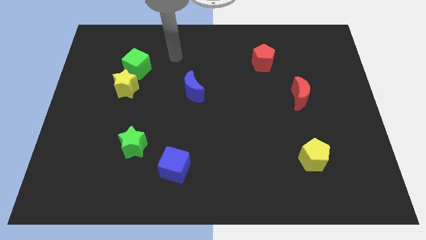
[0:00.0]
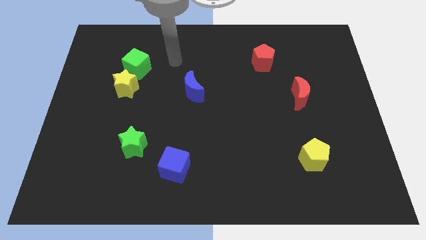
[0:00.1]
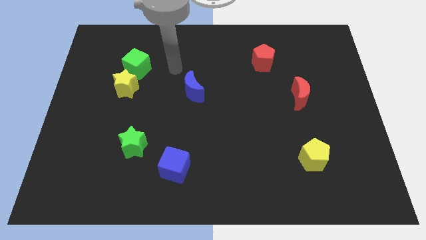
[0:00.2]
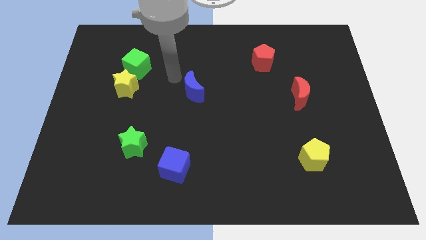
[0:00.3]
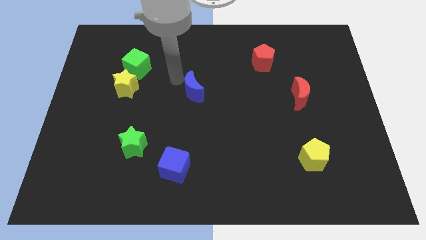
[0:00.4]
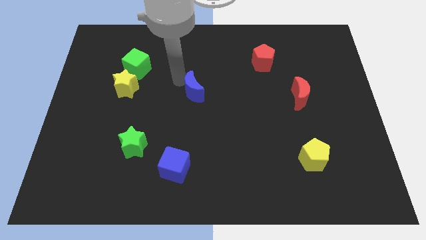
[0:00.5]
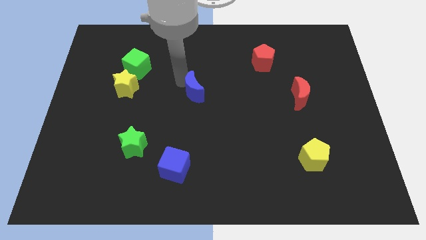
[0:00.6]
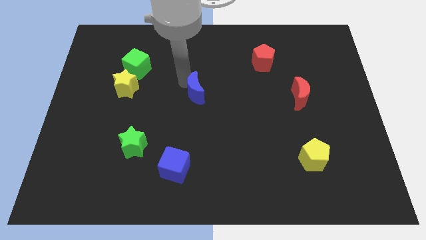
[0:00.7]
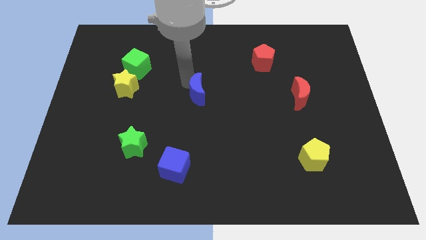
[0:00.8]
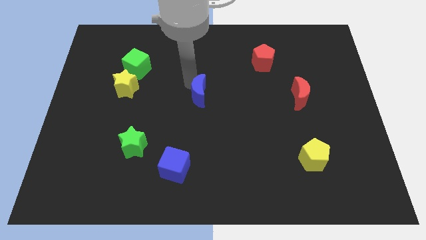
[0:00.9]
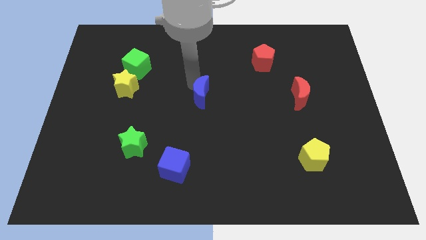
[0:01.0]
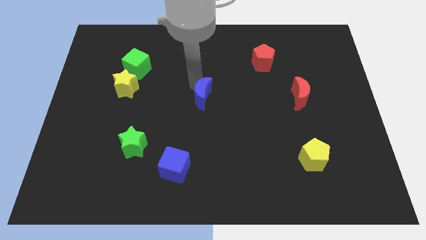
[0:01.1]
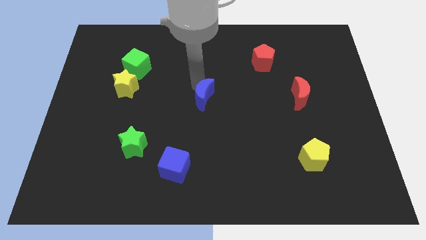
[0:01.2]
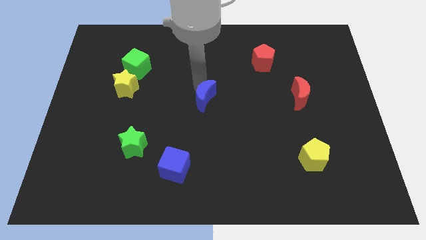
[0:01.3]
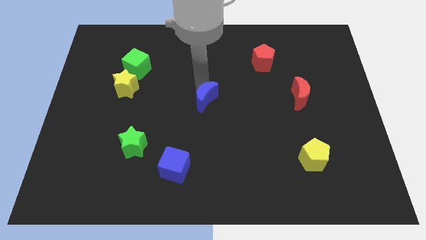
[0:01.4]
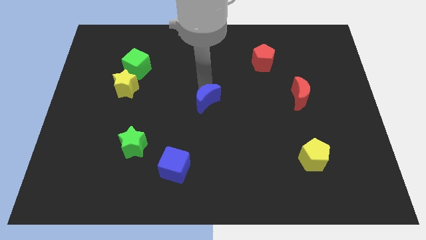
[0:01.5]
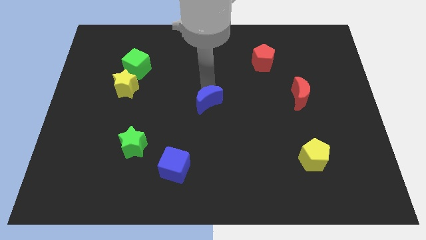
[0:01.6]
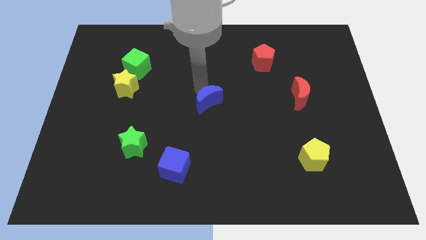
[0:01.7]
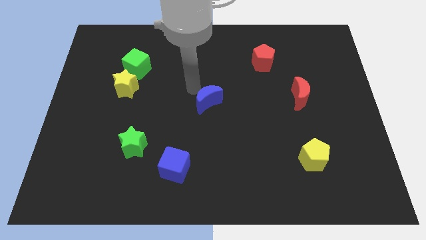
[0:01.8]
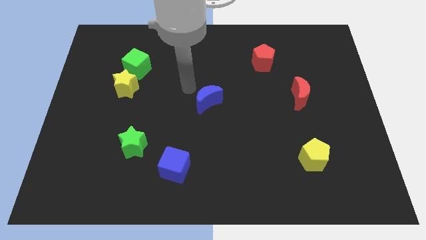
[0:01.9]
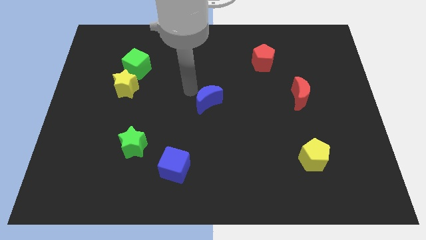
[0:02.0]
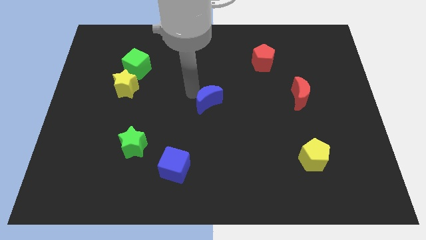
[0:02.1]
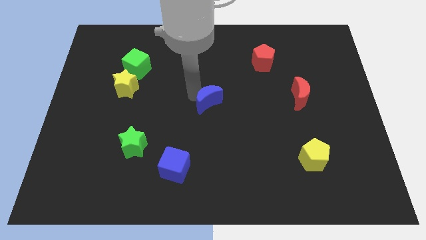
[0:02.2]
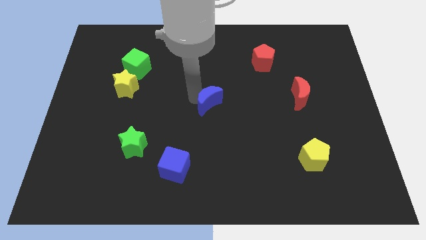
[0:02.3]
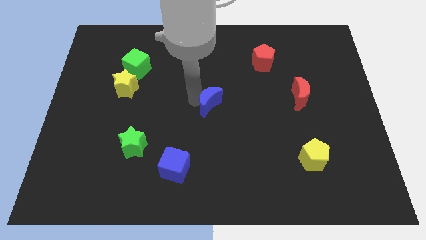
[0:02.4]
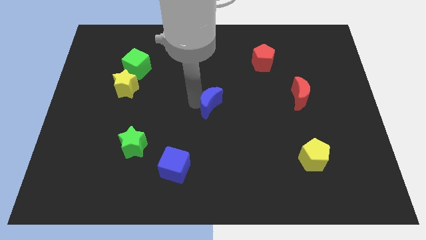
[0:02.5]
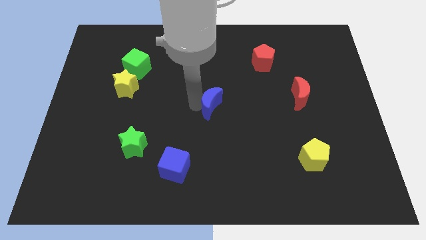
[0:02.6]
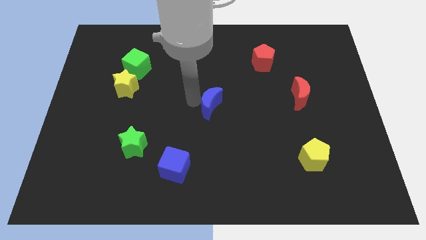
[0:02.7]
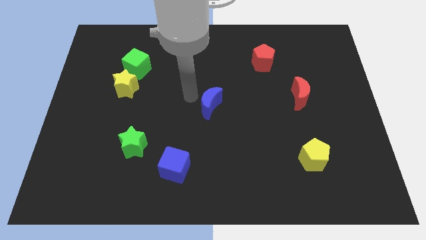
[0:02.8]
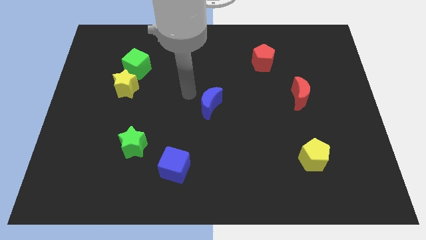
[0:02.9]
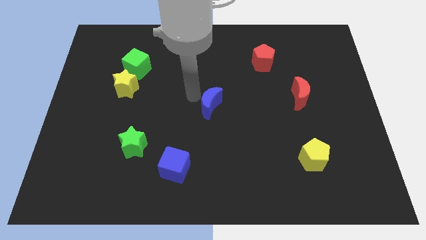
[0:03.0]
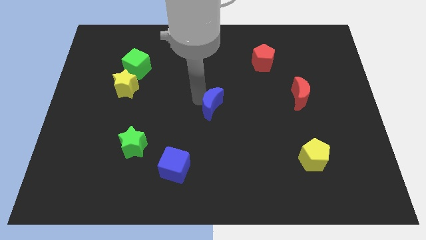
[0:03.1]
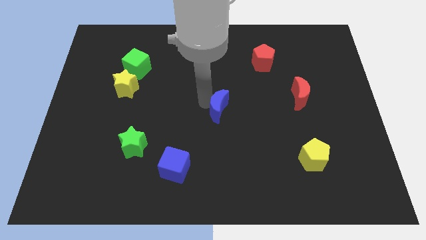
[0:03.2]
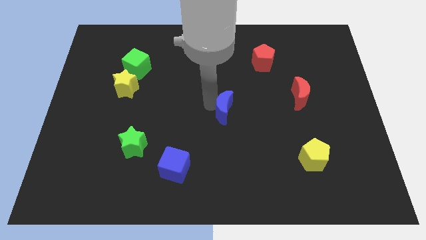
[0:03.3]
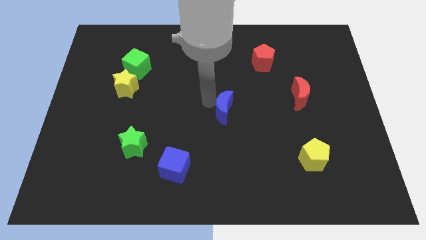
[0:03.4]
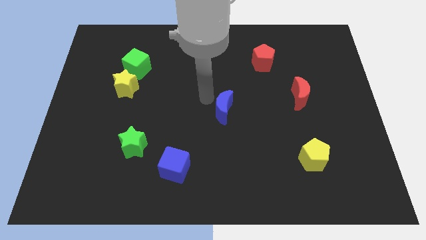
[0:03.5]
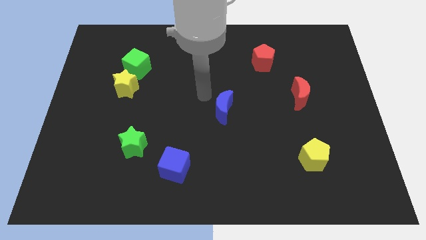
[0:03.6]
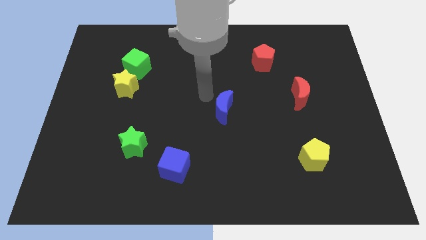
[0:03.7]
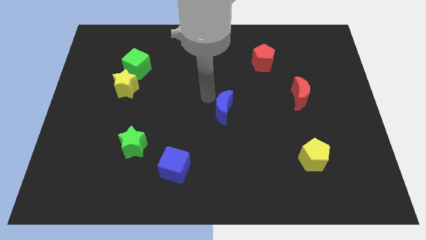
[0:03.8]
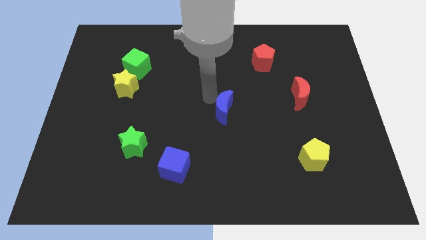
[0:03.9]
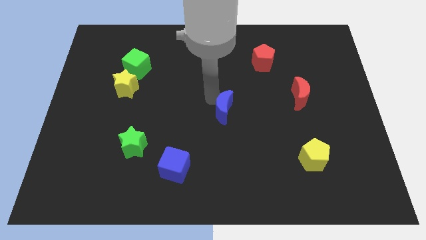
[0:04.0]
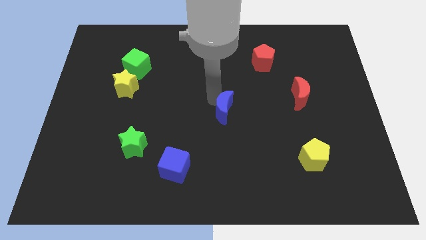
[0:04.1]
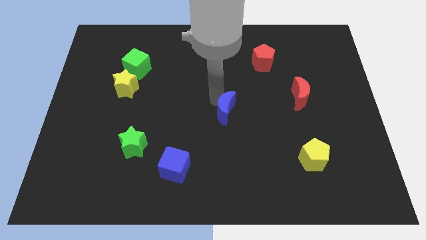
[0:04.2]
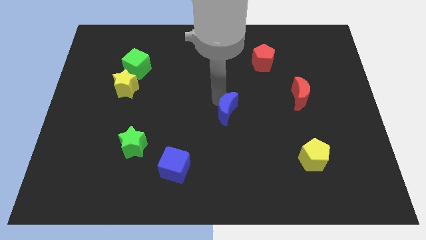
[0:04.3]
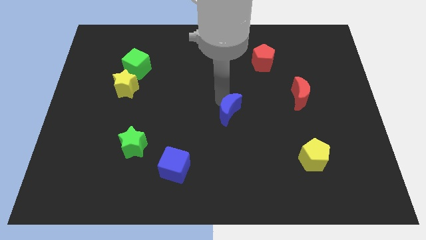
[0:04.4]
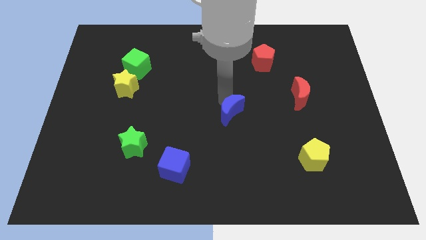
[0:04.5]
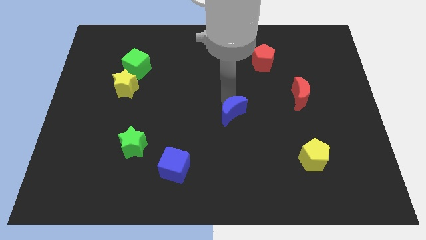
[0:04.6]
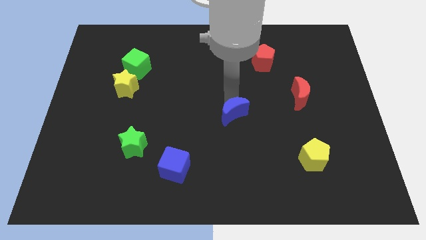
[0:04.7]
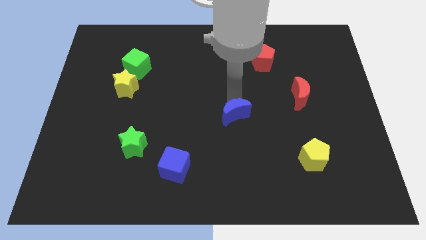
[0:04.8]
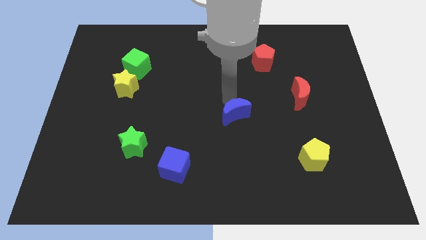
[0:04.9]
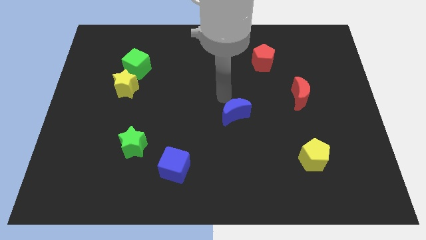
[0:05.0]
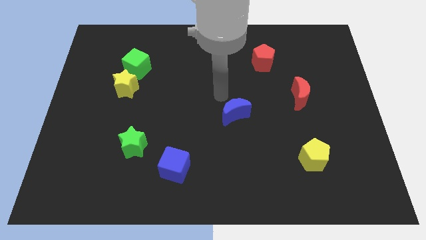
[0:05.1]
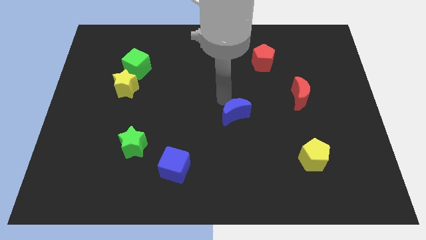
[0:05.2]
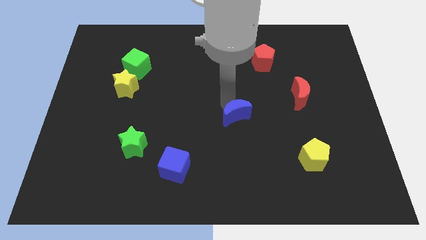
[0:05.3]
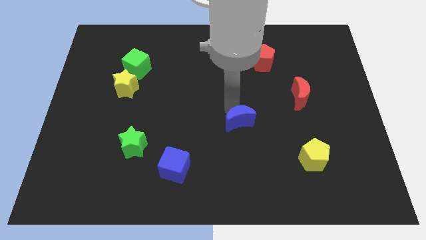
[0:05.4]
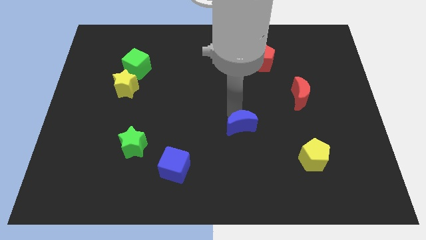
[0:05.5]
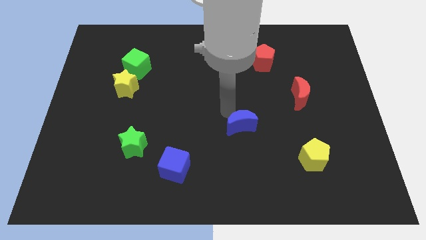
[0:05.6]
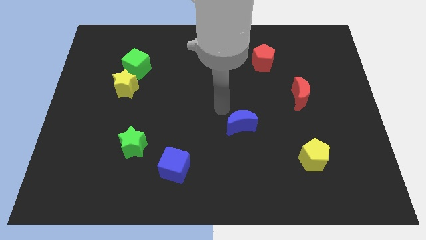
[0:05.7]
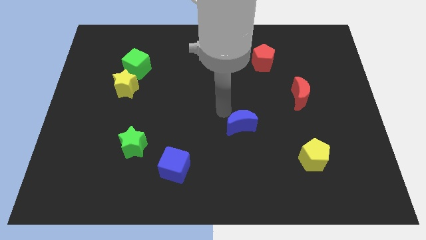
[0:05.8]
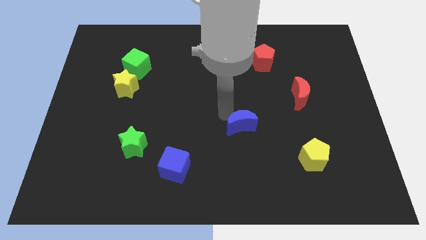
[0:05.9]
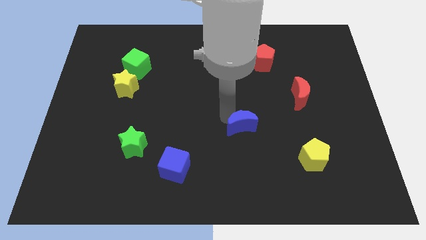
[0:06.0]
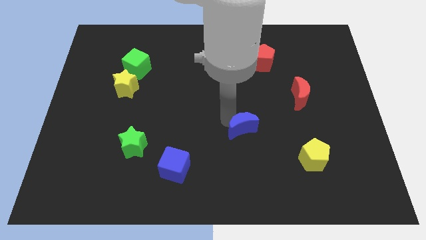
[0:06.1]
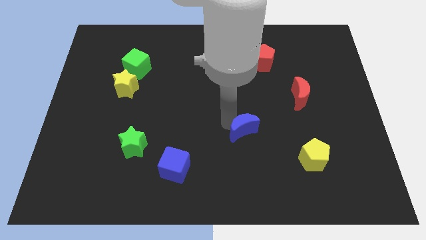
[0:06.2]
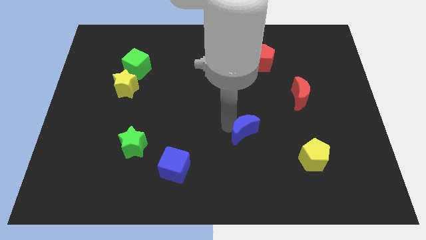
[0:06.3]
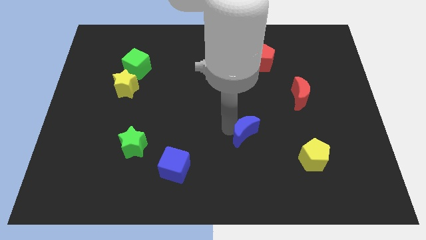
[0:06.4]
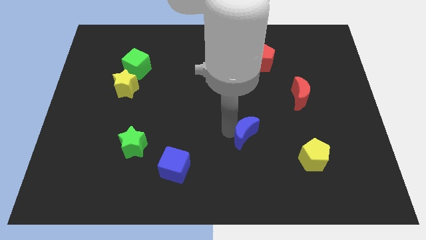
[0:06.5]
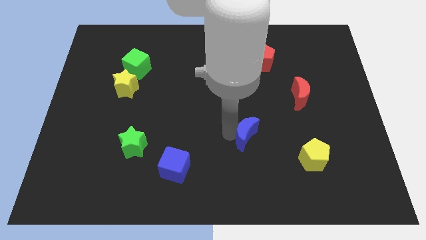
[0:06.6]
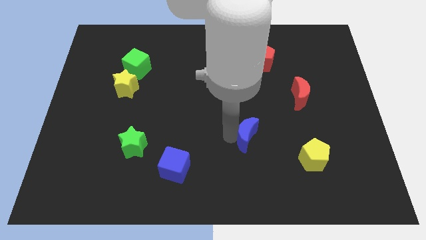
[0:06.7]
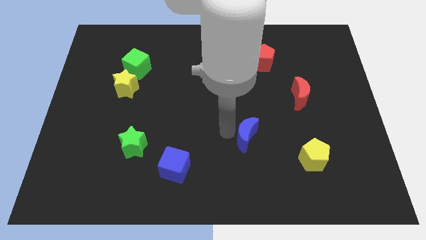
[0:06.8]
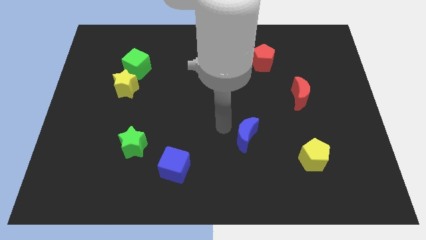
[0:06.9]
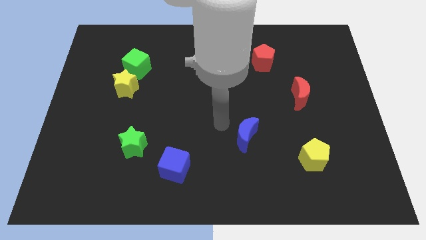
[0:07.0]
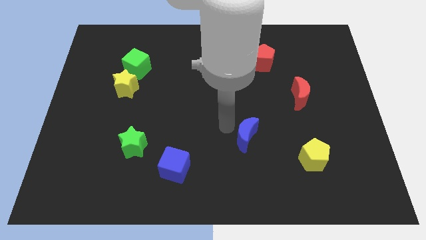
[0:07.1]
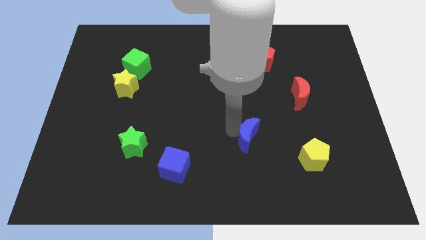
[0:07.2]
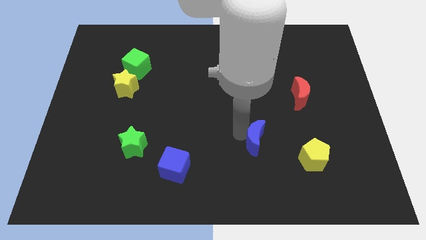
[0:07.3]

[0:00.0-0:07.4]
move the blue moon diagonally down and right

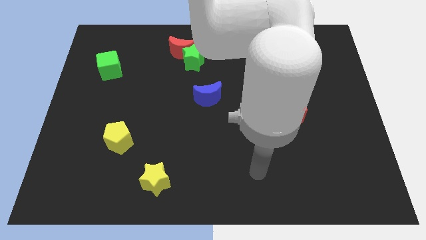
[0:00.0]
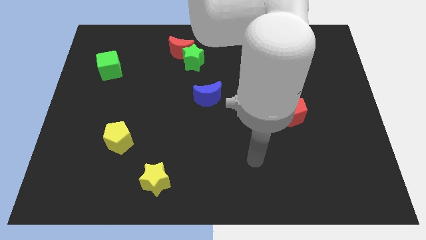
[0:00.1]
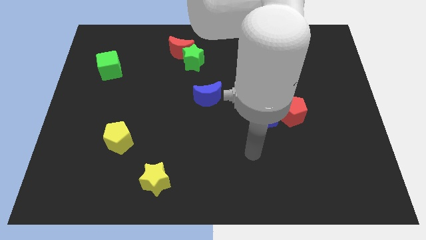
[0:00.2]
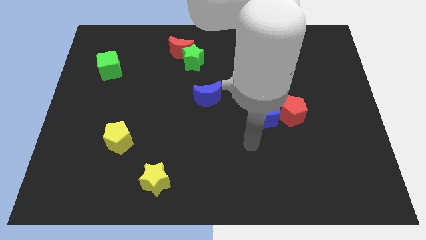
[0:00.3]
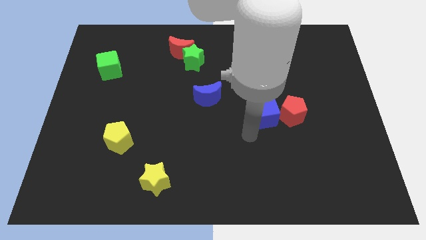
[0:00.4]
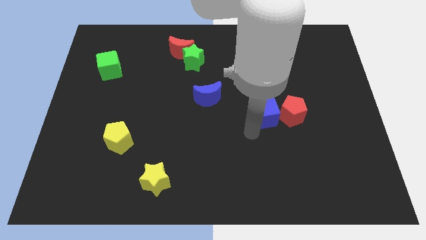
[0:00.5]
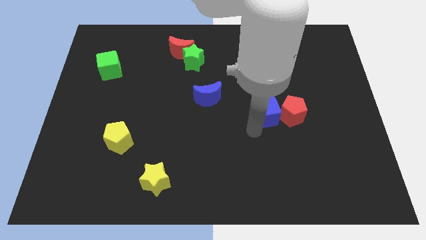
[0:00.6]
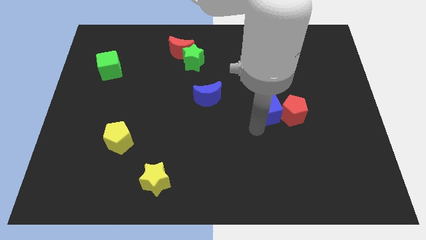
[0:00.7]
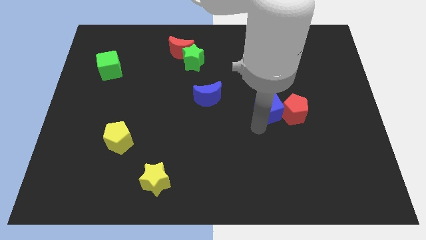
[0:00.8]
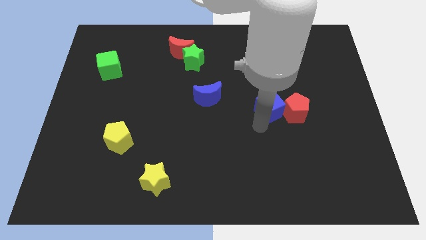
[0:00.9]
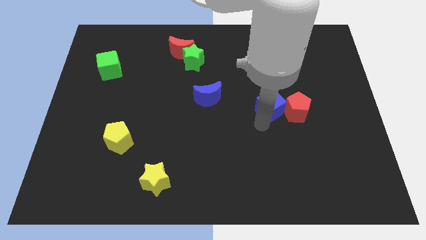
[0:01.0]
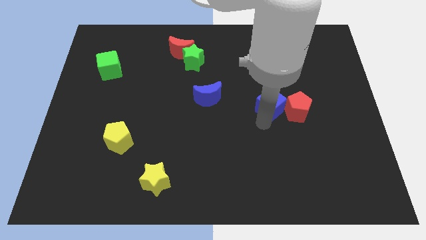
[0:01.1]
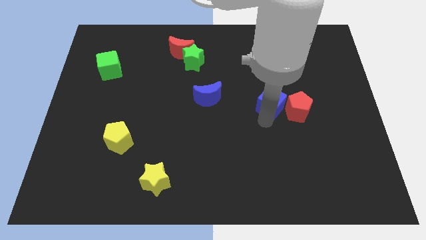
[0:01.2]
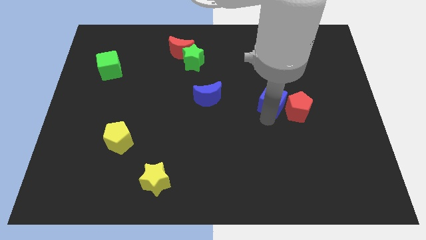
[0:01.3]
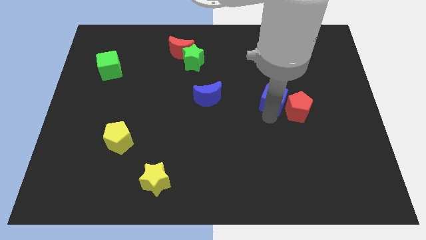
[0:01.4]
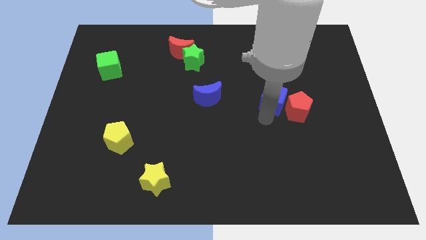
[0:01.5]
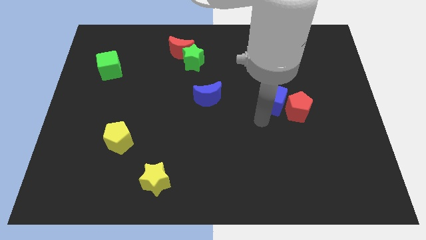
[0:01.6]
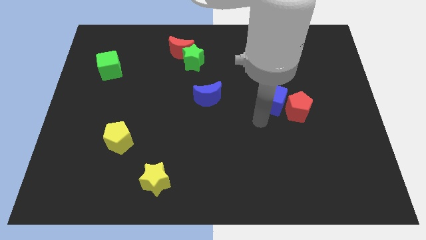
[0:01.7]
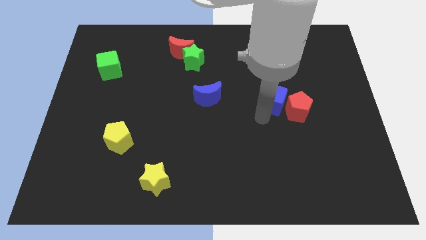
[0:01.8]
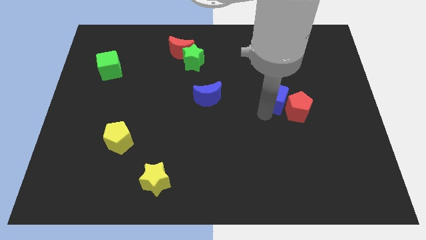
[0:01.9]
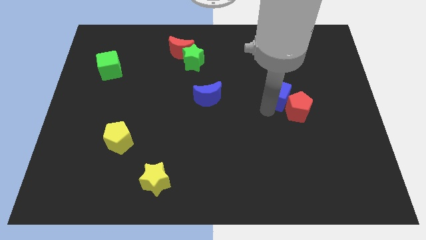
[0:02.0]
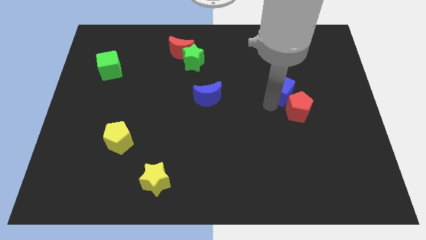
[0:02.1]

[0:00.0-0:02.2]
slightly push the blue cube upwards and to the right
